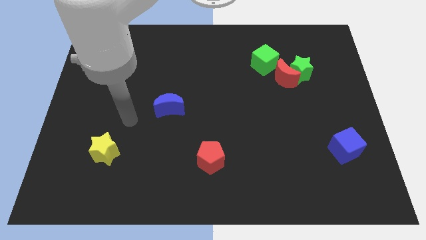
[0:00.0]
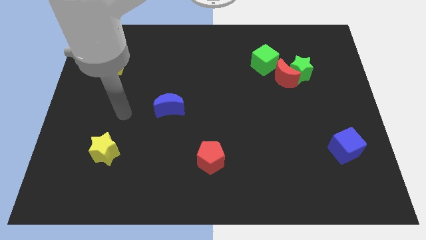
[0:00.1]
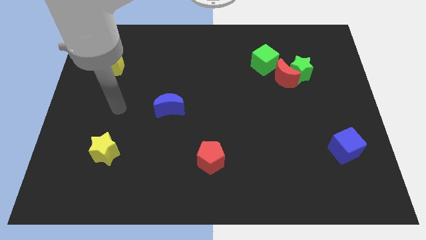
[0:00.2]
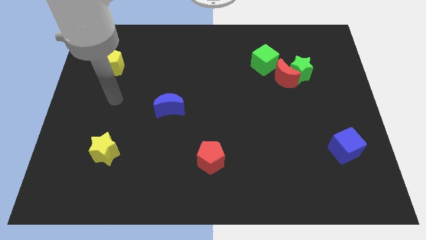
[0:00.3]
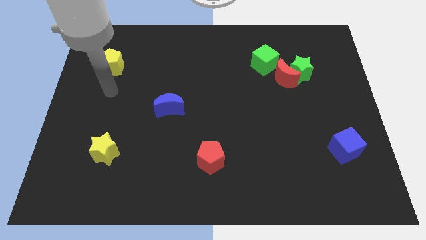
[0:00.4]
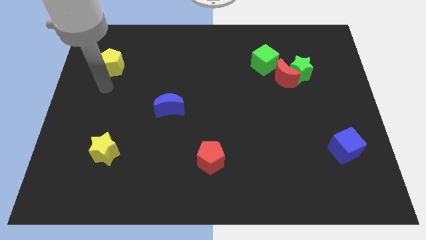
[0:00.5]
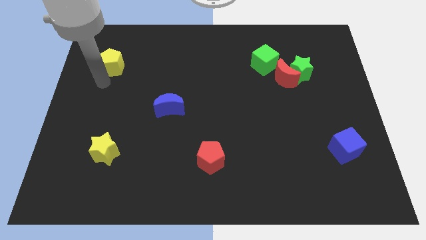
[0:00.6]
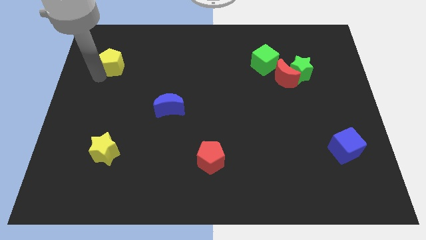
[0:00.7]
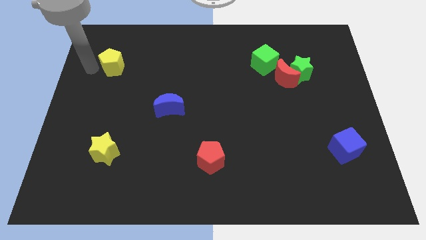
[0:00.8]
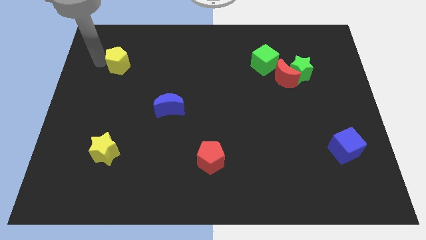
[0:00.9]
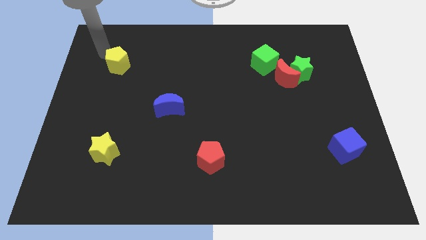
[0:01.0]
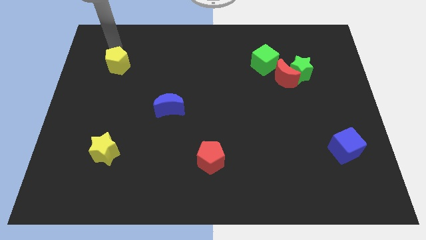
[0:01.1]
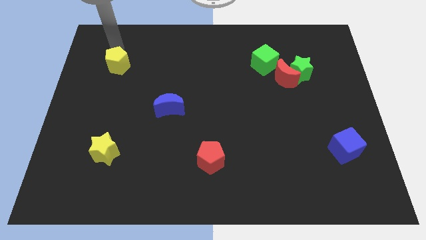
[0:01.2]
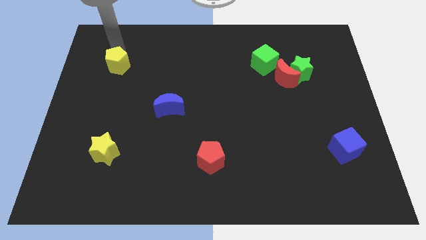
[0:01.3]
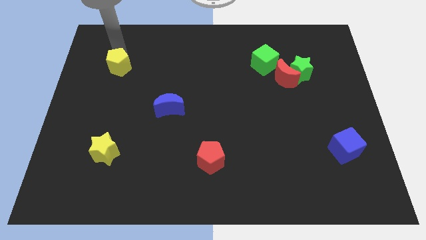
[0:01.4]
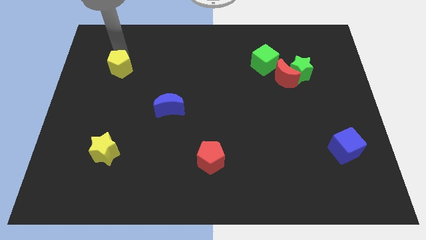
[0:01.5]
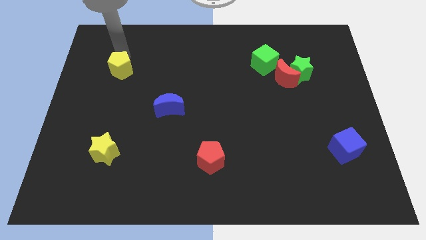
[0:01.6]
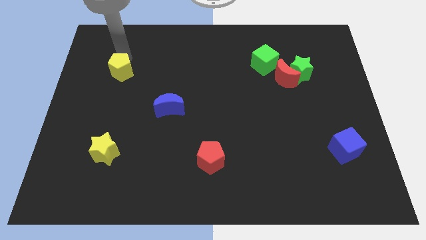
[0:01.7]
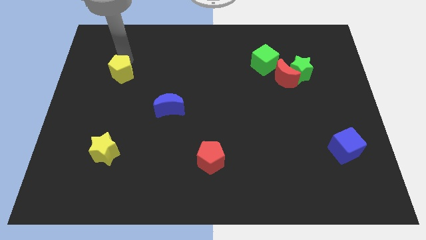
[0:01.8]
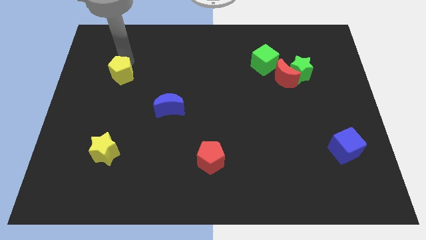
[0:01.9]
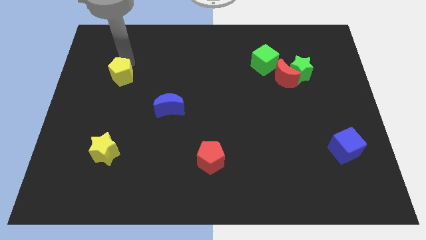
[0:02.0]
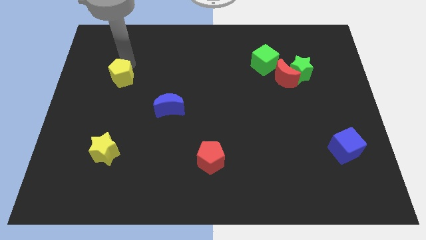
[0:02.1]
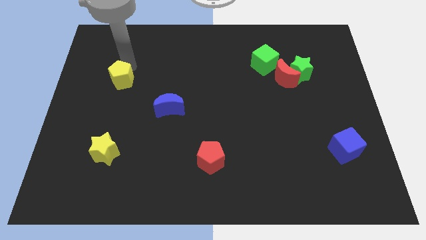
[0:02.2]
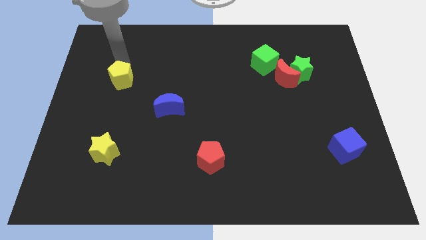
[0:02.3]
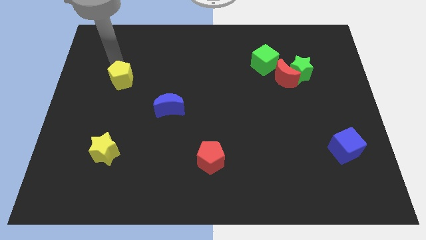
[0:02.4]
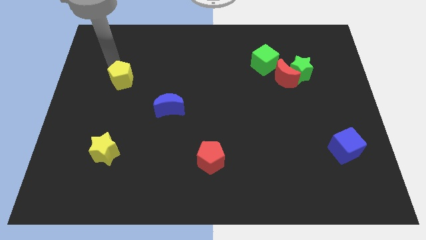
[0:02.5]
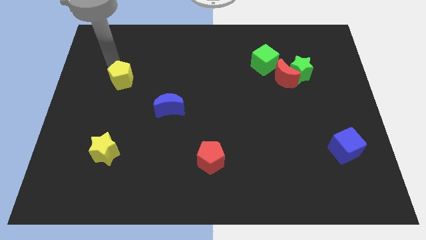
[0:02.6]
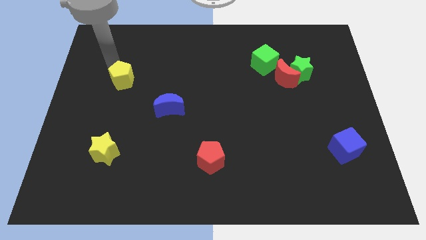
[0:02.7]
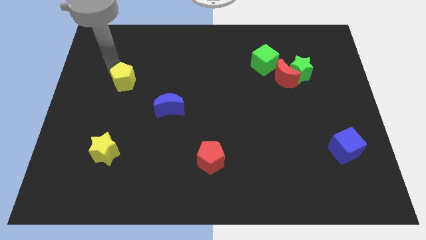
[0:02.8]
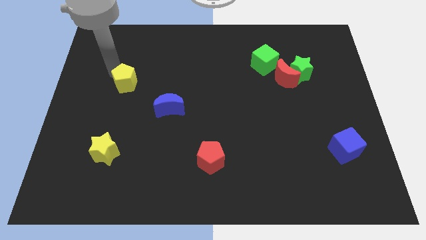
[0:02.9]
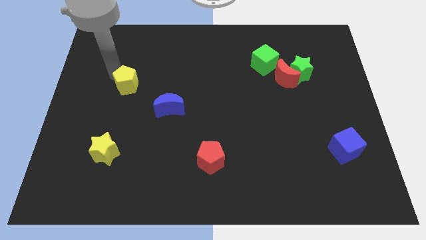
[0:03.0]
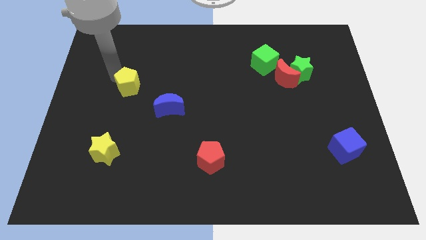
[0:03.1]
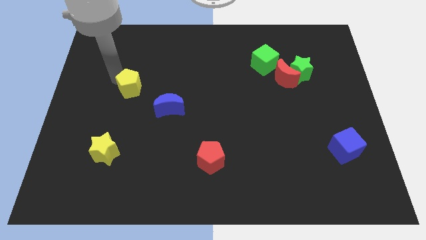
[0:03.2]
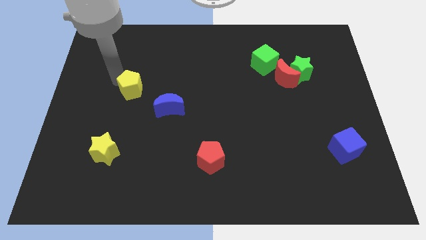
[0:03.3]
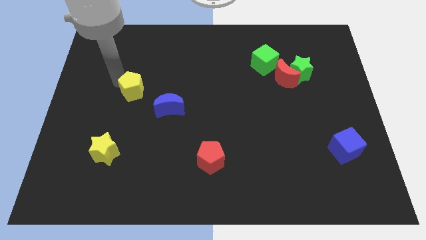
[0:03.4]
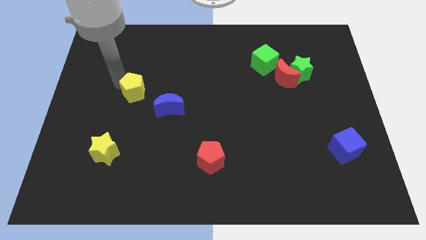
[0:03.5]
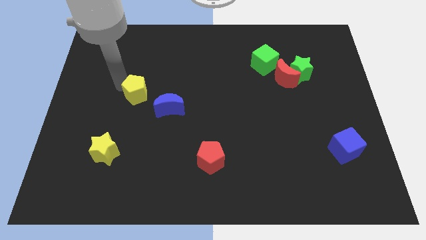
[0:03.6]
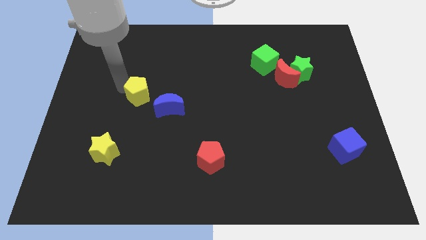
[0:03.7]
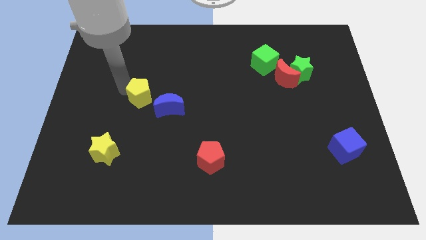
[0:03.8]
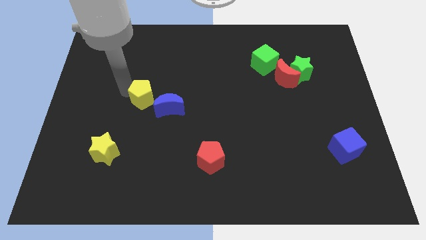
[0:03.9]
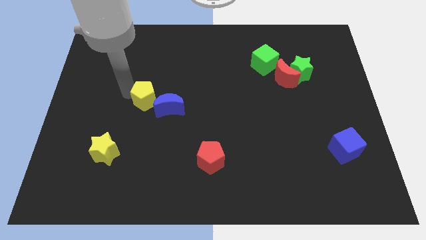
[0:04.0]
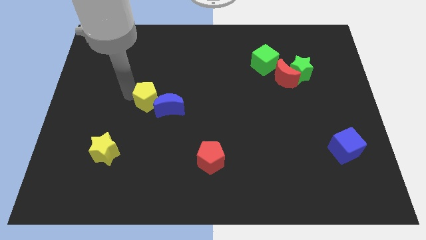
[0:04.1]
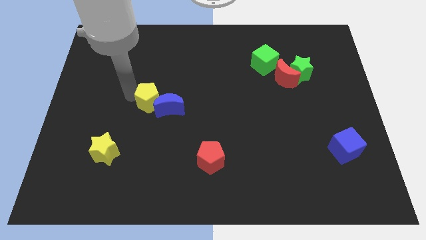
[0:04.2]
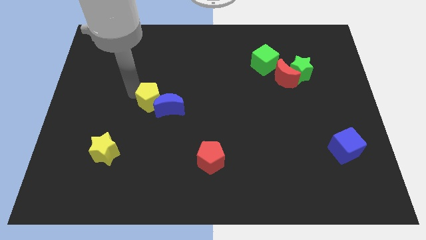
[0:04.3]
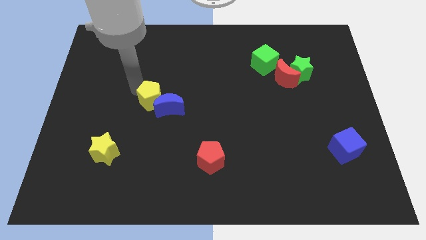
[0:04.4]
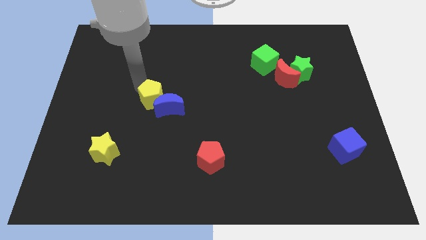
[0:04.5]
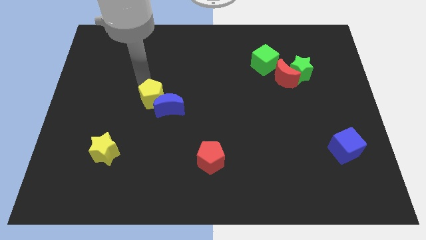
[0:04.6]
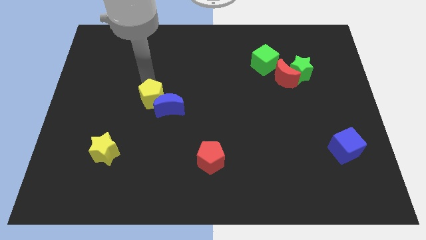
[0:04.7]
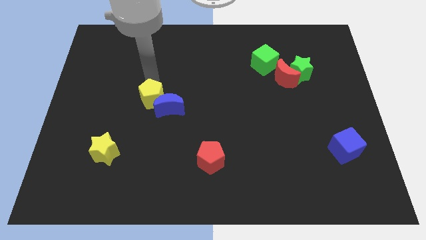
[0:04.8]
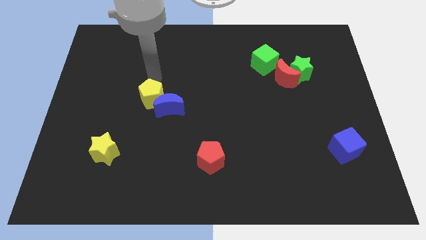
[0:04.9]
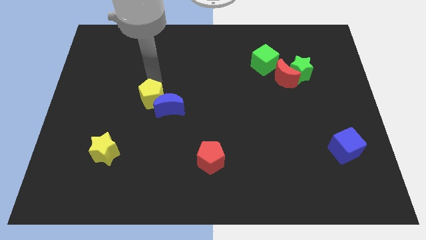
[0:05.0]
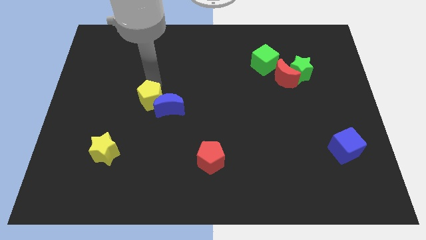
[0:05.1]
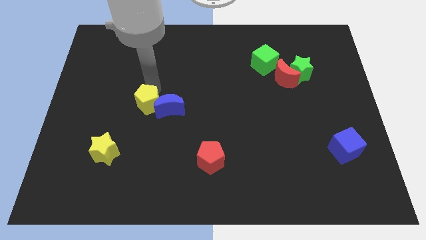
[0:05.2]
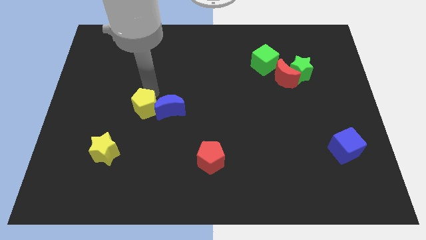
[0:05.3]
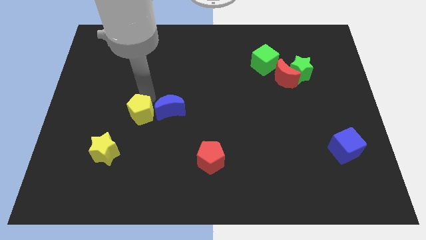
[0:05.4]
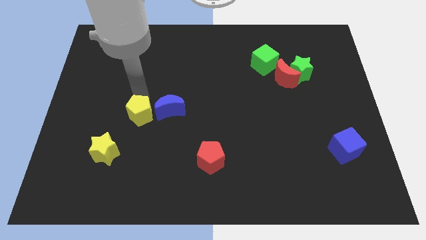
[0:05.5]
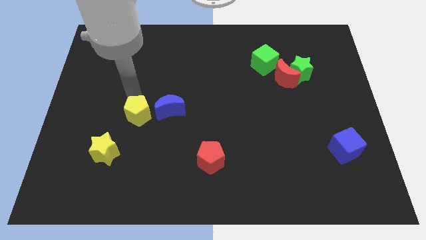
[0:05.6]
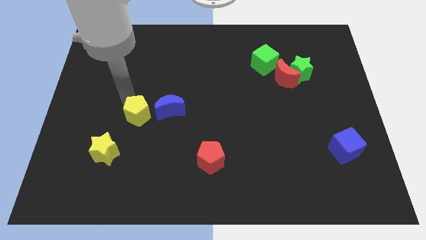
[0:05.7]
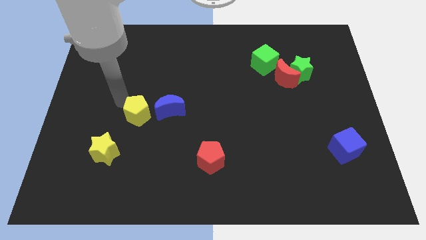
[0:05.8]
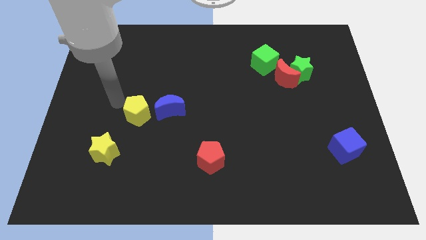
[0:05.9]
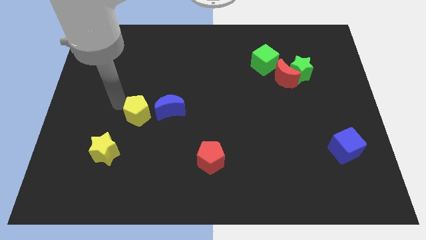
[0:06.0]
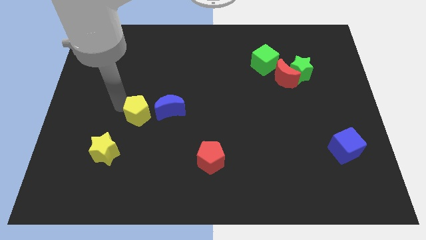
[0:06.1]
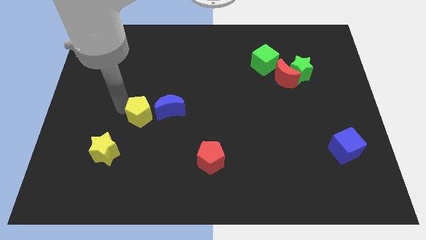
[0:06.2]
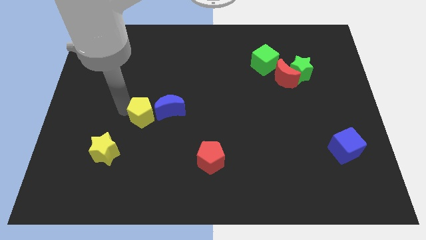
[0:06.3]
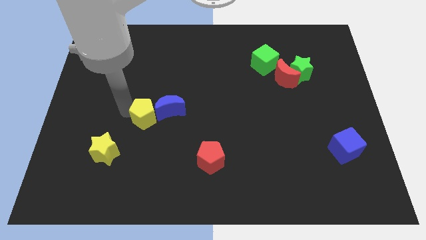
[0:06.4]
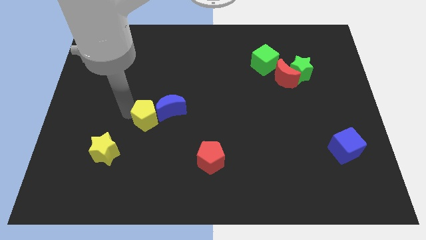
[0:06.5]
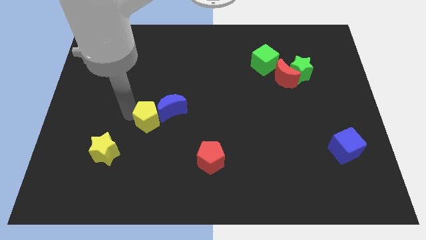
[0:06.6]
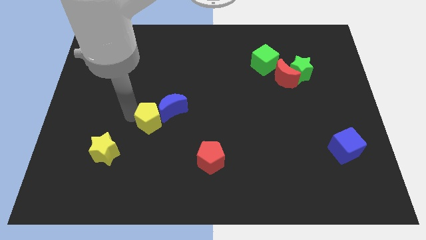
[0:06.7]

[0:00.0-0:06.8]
slide the yellow pentagon down and to the right

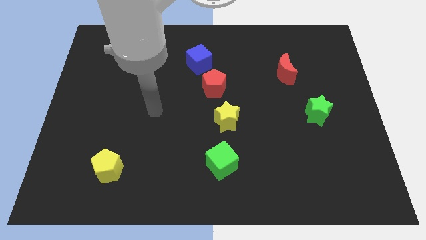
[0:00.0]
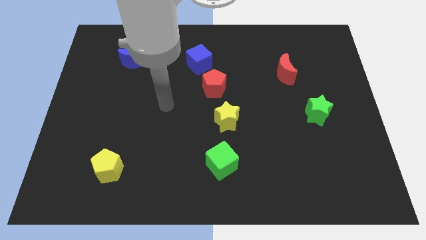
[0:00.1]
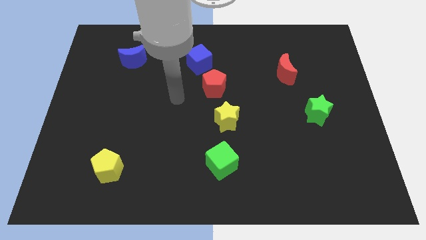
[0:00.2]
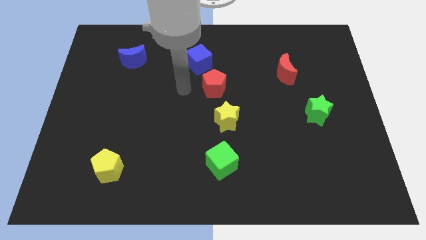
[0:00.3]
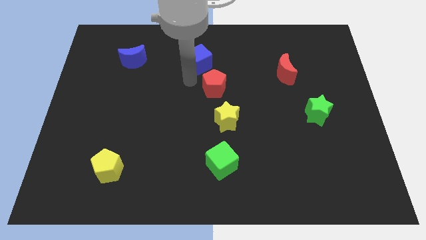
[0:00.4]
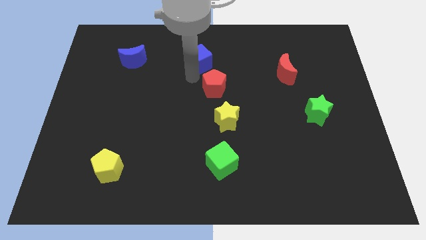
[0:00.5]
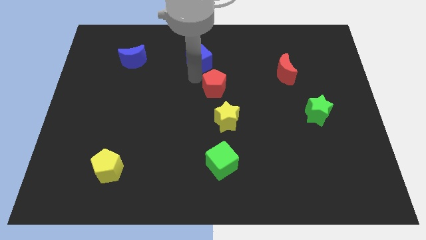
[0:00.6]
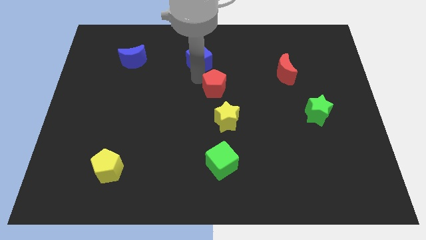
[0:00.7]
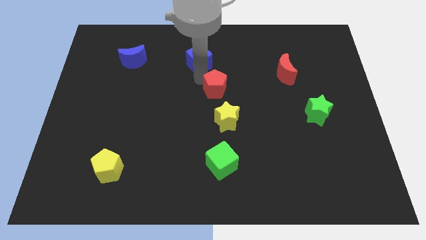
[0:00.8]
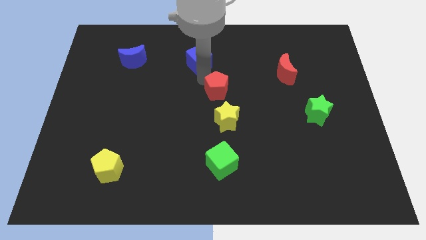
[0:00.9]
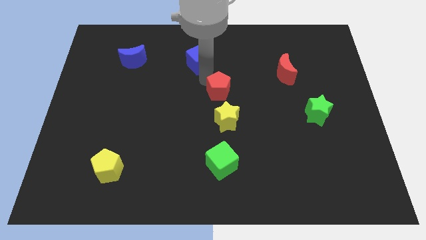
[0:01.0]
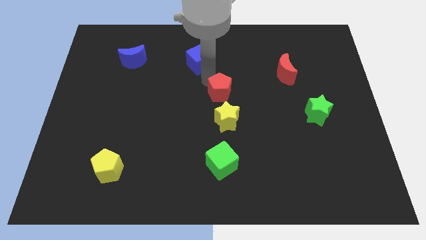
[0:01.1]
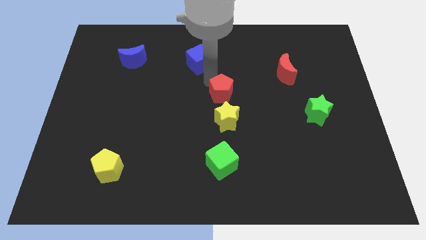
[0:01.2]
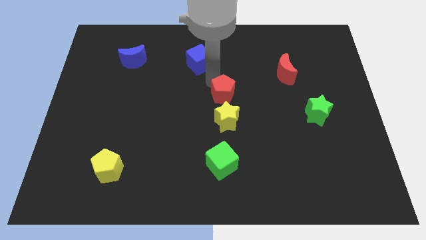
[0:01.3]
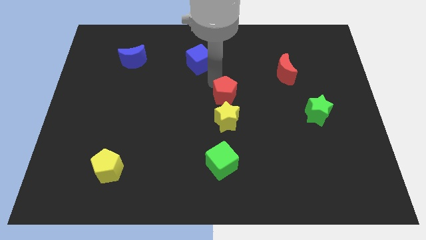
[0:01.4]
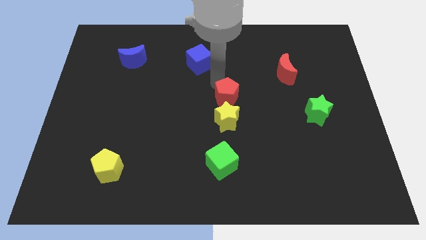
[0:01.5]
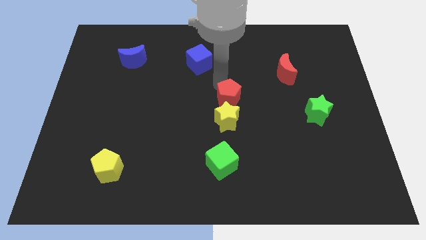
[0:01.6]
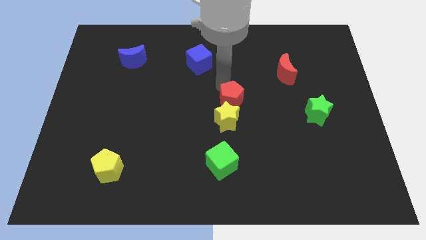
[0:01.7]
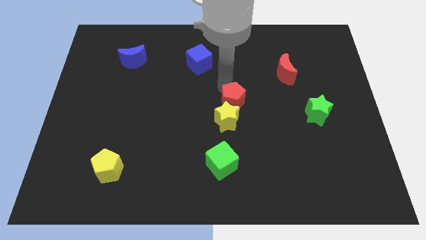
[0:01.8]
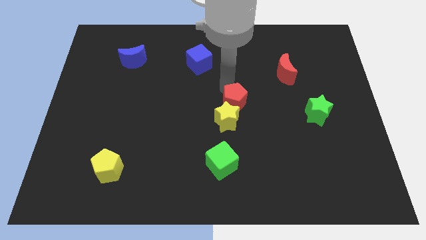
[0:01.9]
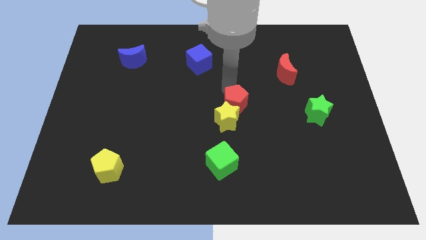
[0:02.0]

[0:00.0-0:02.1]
slightly slide the red pentagon downwards and to the right diagonally
